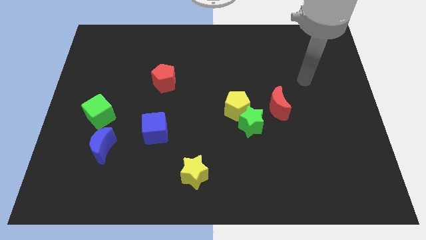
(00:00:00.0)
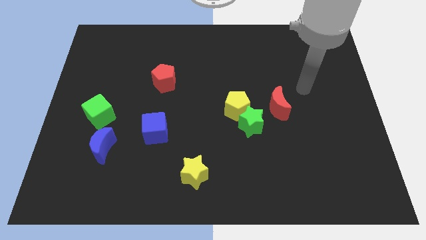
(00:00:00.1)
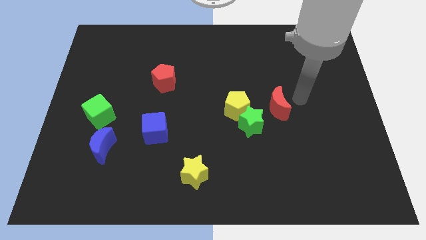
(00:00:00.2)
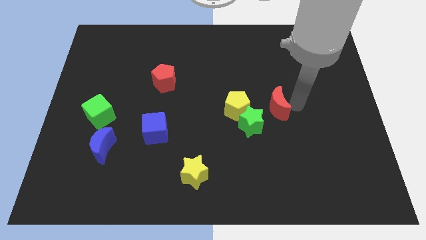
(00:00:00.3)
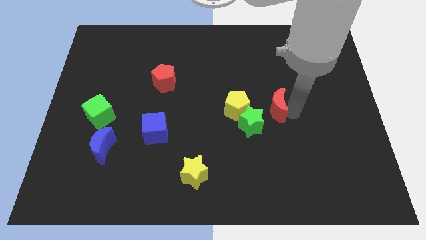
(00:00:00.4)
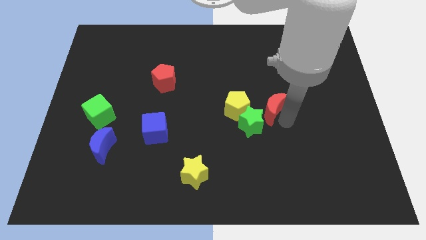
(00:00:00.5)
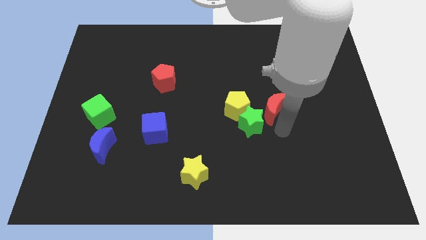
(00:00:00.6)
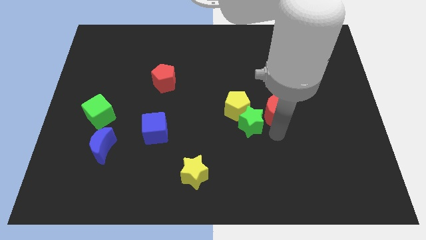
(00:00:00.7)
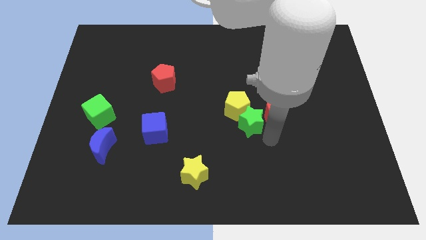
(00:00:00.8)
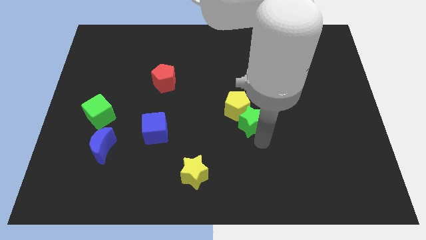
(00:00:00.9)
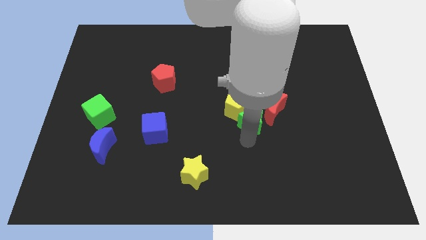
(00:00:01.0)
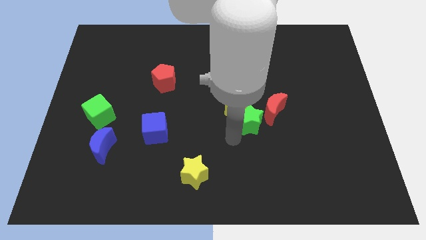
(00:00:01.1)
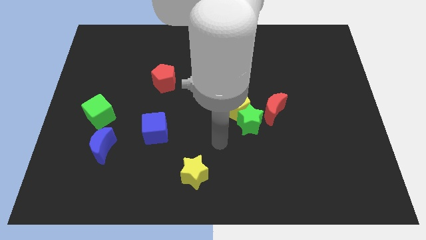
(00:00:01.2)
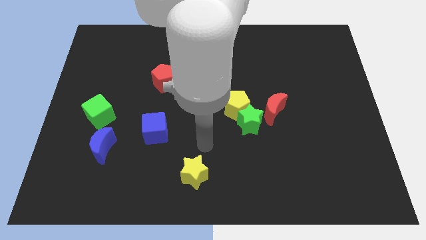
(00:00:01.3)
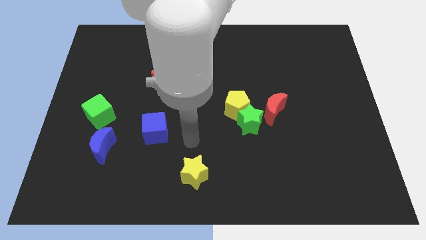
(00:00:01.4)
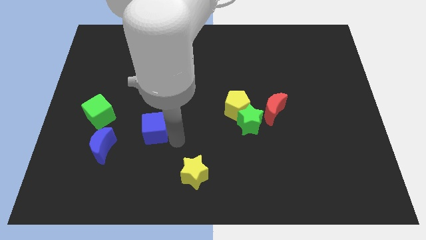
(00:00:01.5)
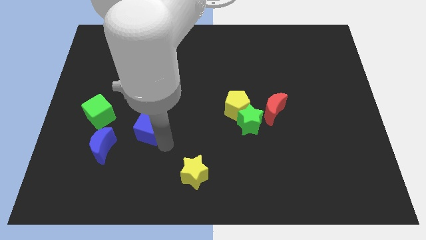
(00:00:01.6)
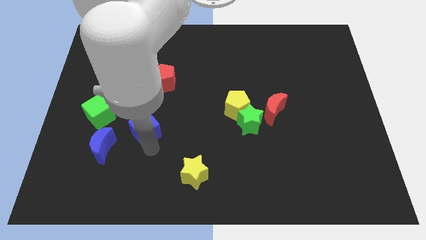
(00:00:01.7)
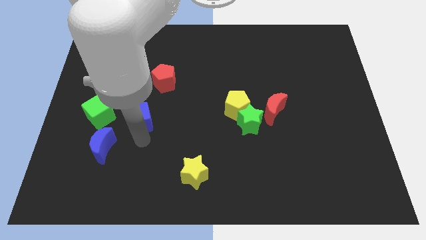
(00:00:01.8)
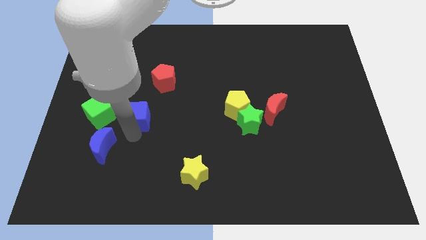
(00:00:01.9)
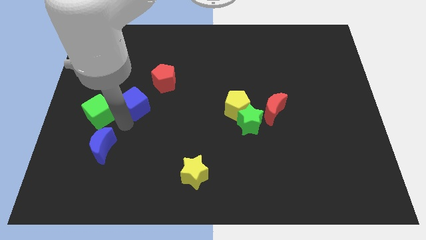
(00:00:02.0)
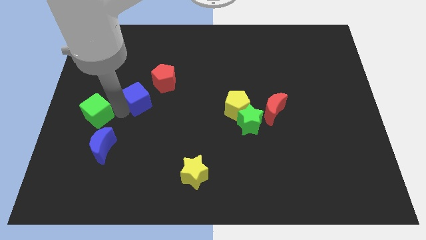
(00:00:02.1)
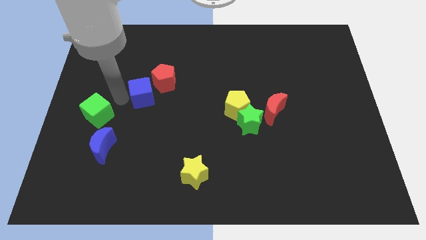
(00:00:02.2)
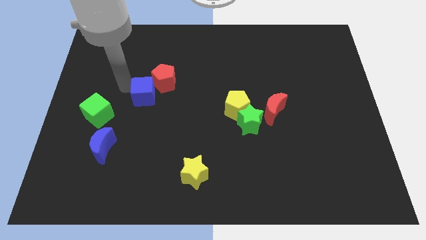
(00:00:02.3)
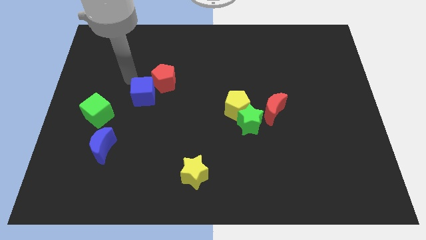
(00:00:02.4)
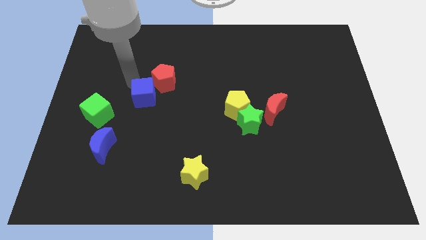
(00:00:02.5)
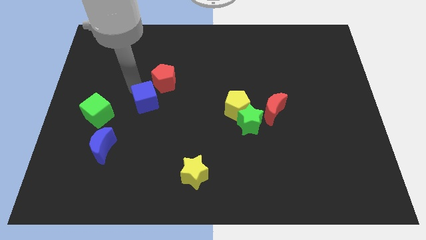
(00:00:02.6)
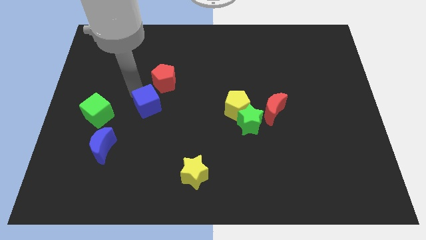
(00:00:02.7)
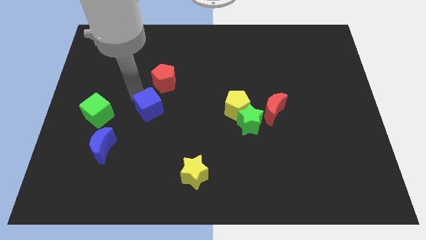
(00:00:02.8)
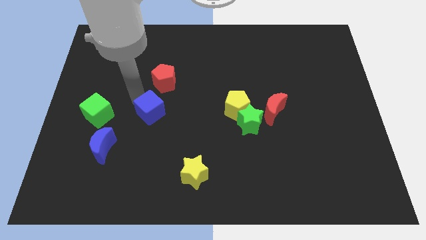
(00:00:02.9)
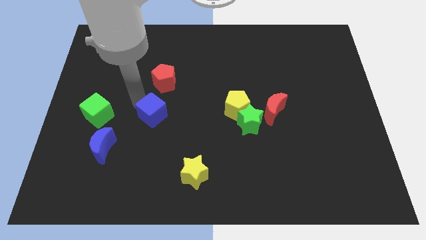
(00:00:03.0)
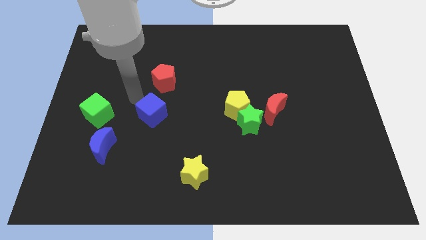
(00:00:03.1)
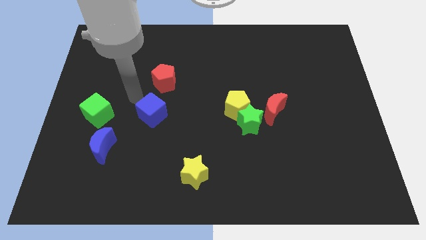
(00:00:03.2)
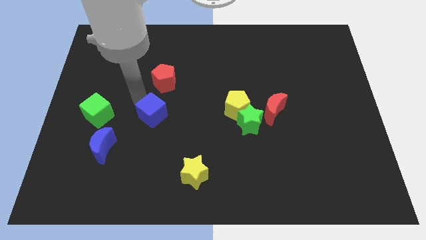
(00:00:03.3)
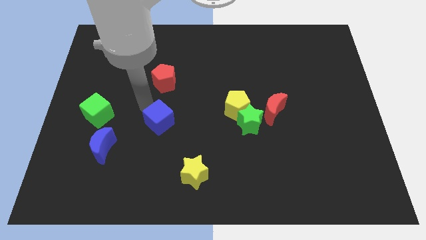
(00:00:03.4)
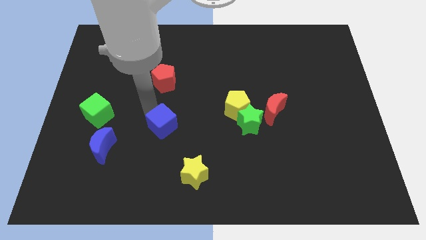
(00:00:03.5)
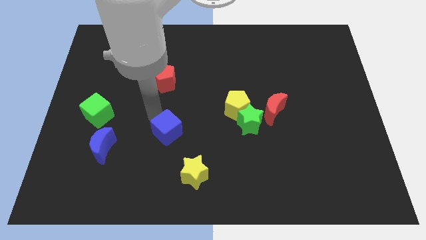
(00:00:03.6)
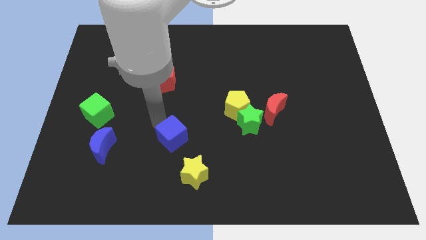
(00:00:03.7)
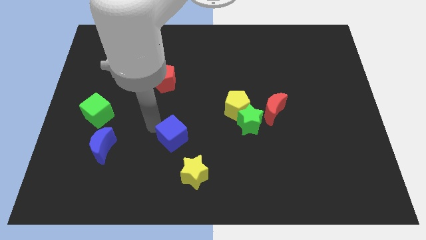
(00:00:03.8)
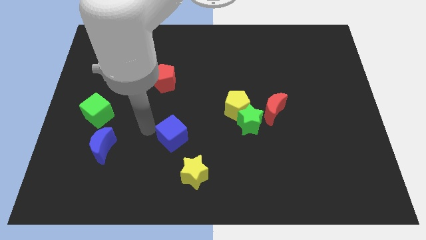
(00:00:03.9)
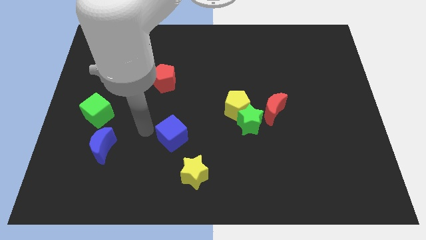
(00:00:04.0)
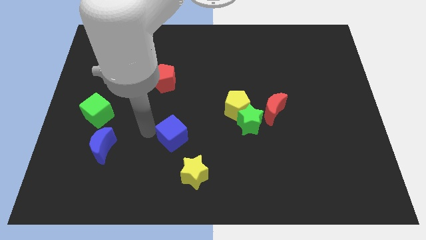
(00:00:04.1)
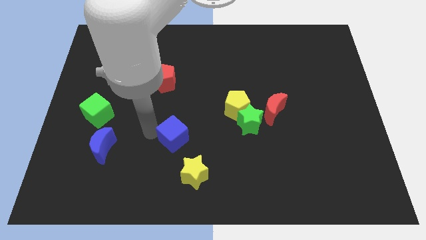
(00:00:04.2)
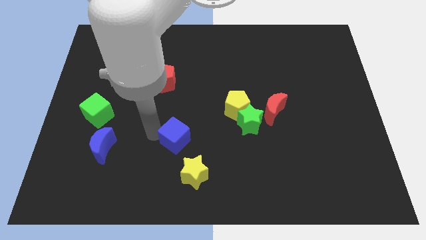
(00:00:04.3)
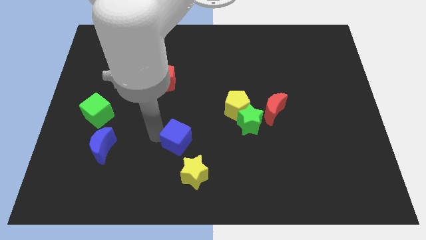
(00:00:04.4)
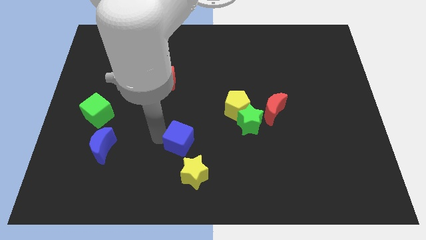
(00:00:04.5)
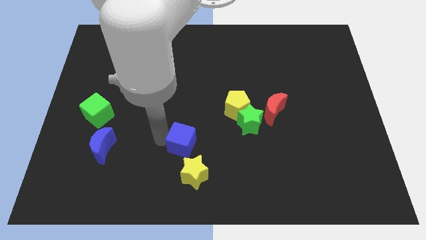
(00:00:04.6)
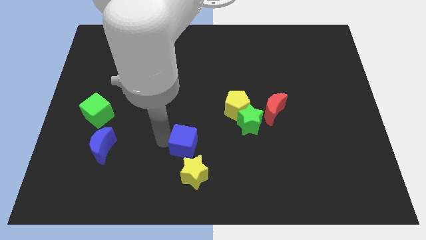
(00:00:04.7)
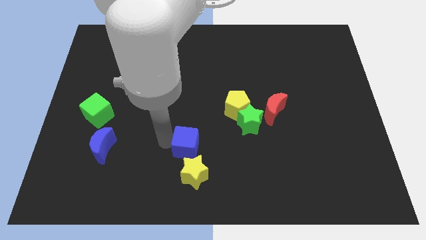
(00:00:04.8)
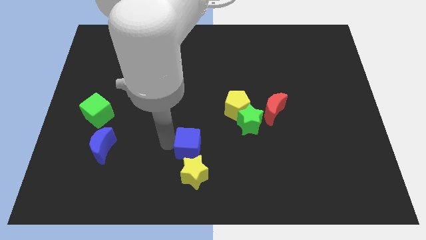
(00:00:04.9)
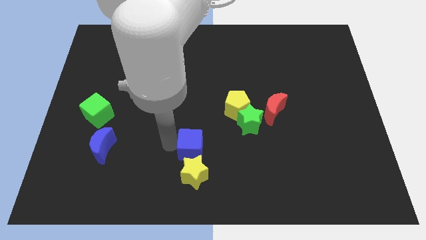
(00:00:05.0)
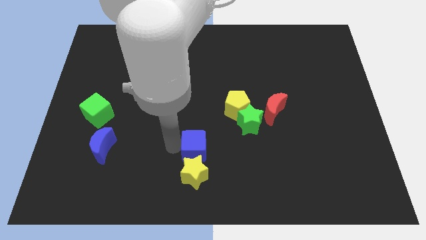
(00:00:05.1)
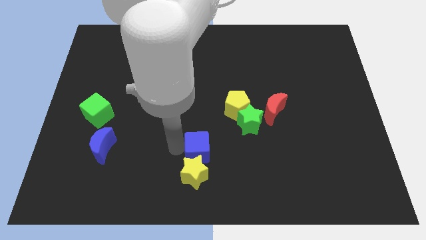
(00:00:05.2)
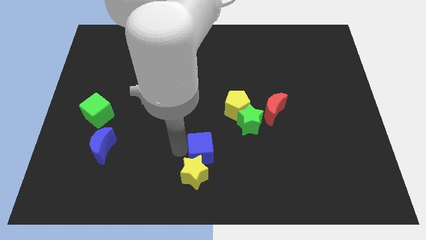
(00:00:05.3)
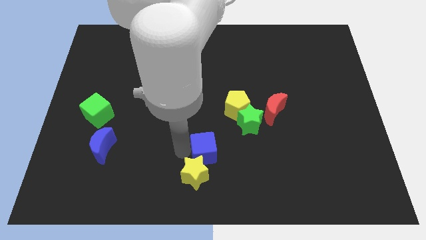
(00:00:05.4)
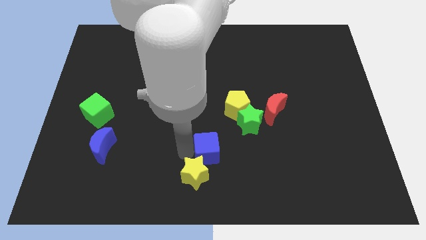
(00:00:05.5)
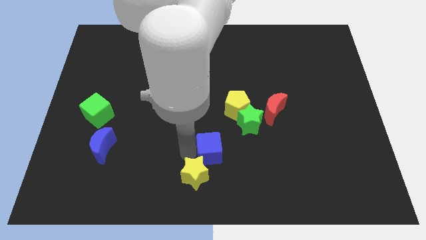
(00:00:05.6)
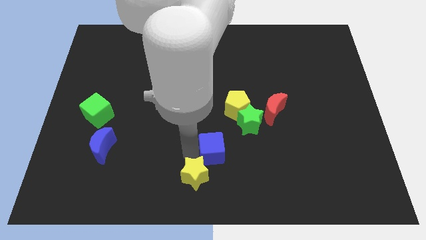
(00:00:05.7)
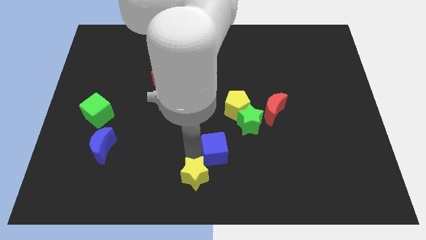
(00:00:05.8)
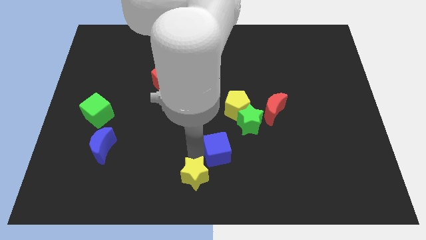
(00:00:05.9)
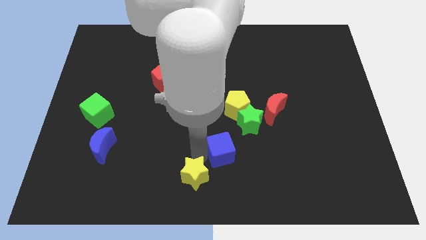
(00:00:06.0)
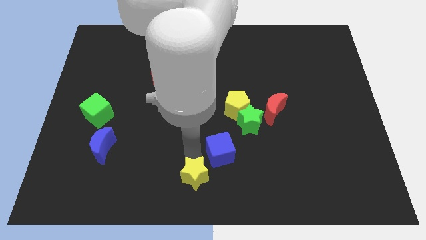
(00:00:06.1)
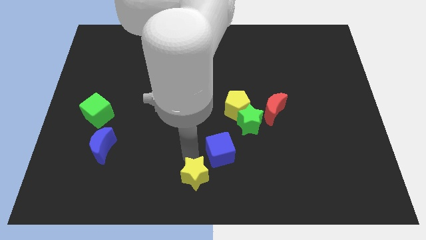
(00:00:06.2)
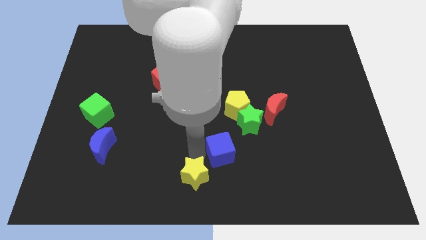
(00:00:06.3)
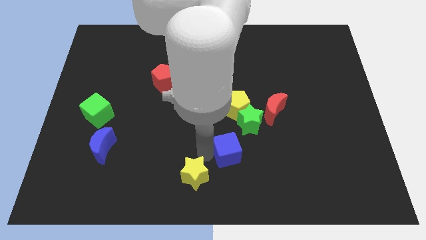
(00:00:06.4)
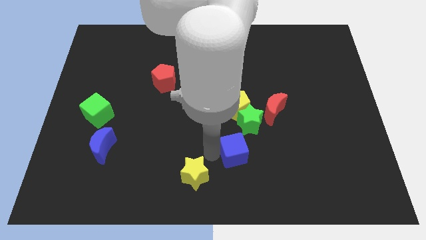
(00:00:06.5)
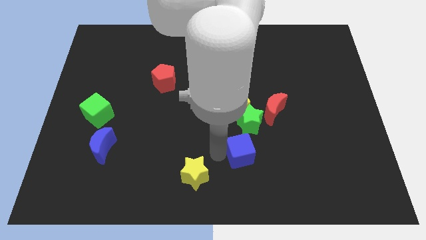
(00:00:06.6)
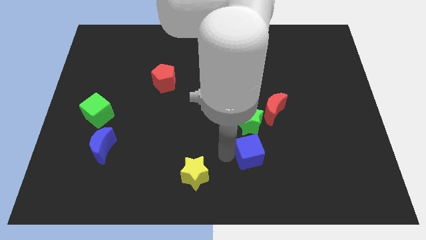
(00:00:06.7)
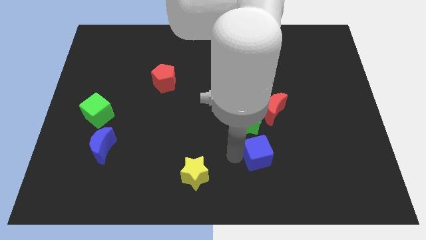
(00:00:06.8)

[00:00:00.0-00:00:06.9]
push the blue cube to the right

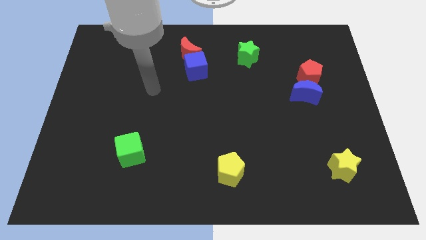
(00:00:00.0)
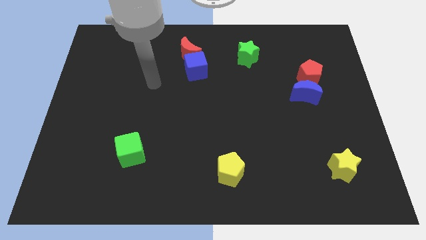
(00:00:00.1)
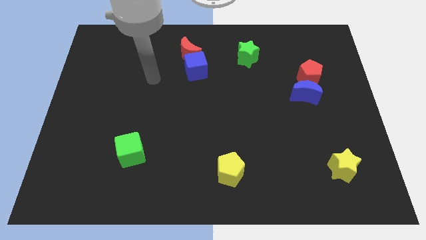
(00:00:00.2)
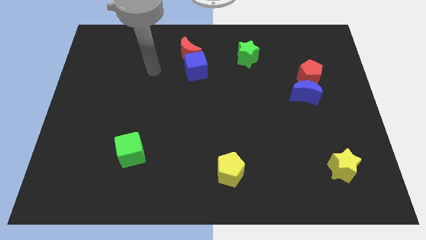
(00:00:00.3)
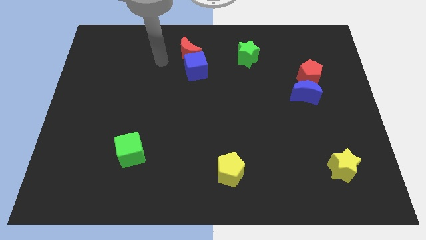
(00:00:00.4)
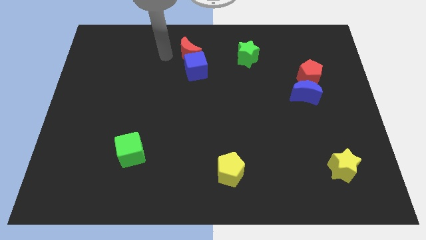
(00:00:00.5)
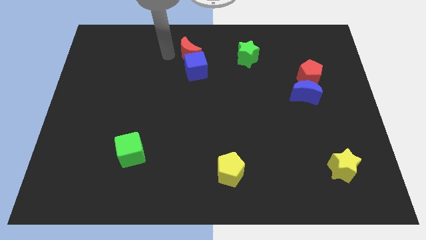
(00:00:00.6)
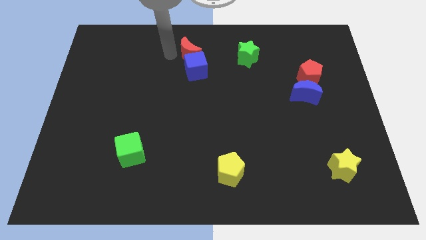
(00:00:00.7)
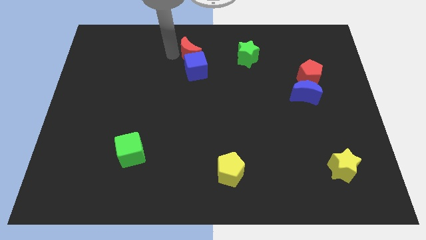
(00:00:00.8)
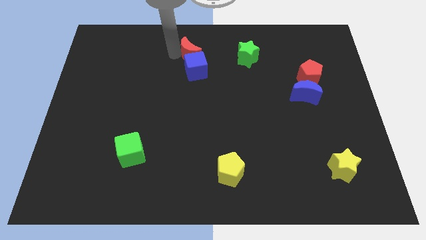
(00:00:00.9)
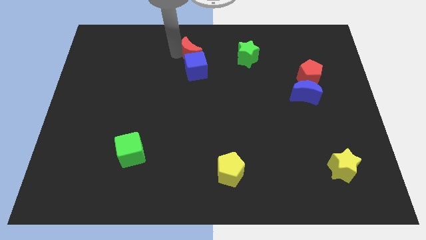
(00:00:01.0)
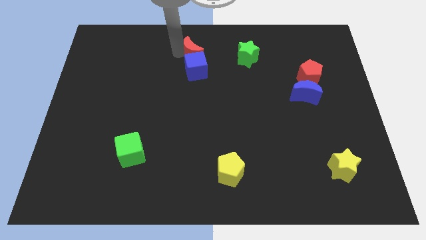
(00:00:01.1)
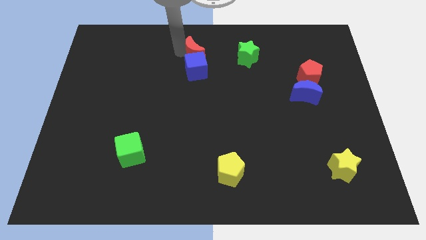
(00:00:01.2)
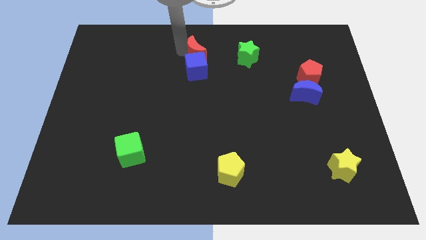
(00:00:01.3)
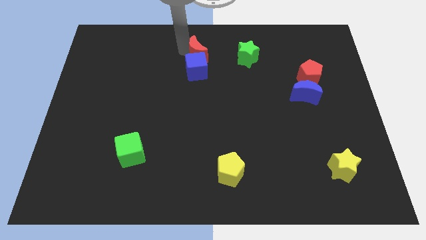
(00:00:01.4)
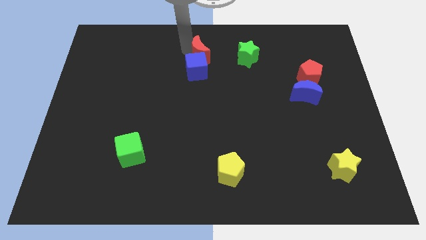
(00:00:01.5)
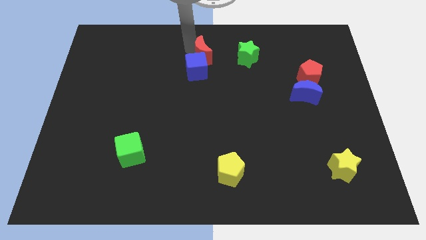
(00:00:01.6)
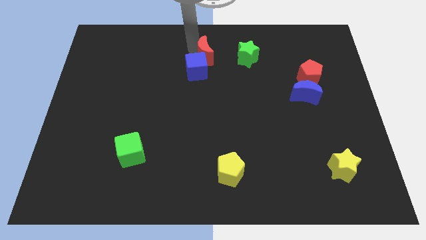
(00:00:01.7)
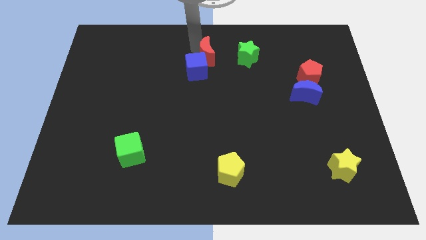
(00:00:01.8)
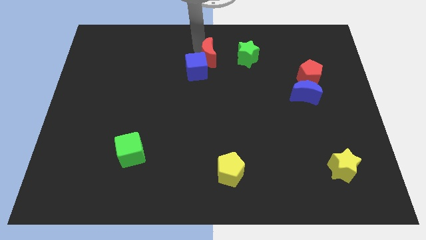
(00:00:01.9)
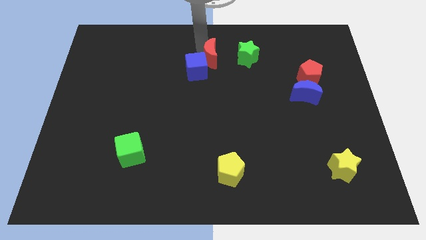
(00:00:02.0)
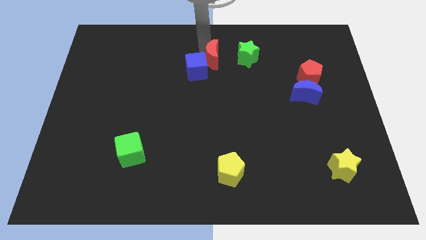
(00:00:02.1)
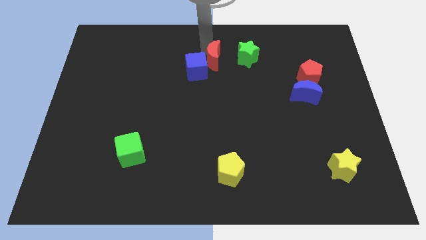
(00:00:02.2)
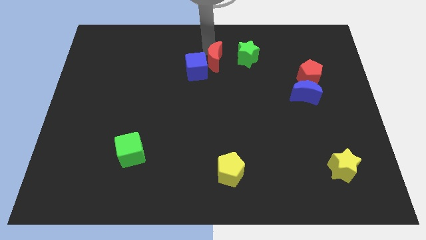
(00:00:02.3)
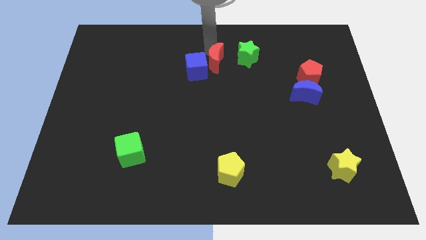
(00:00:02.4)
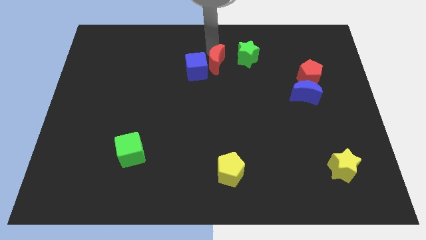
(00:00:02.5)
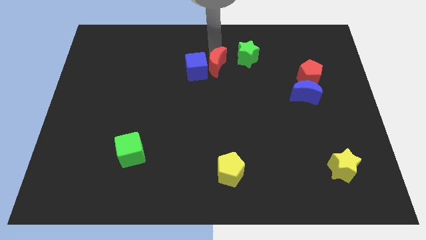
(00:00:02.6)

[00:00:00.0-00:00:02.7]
slide the red moon downwards and right diagonally slightly
